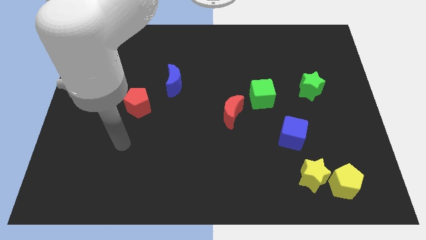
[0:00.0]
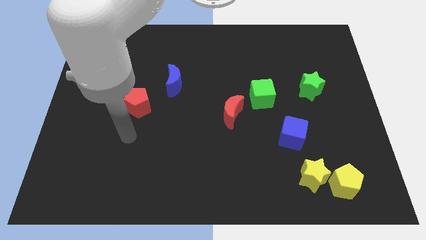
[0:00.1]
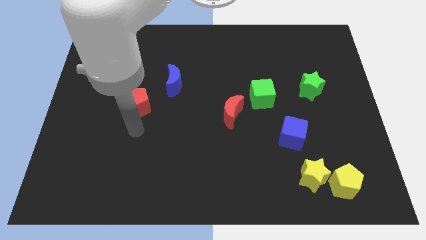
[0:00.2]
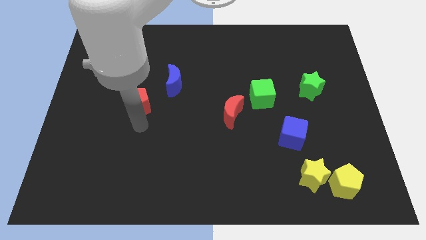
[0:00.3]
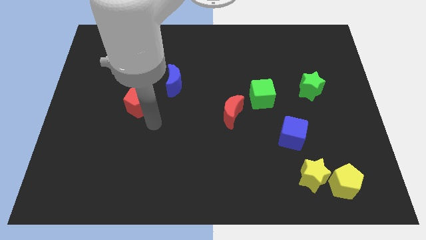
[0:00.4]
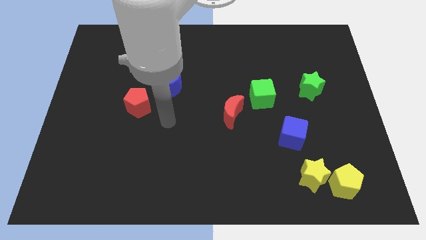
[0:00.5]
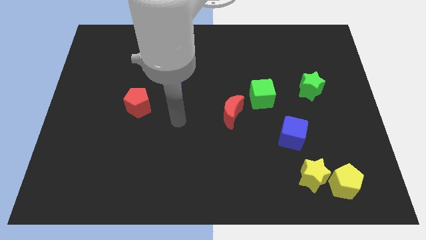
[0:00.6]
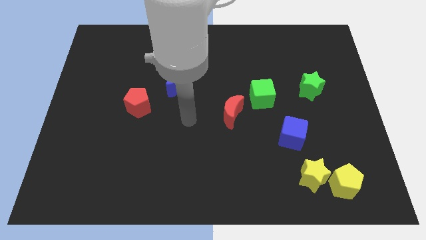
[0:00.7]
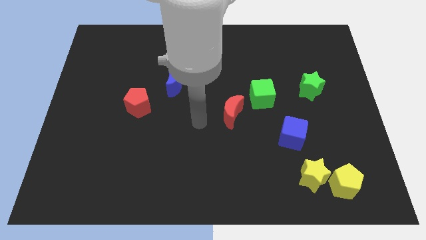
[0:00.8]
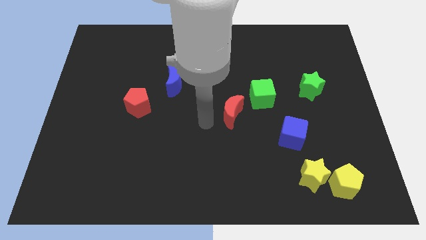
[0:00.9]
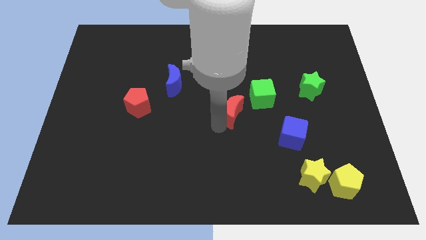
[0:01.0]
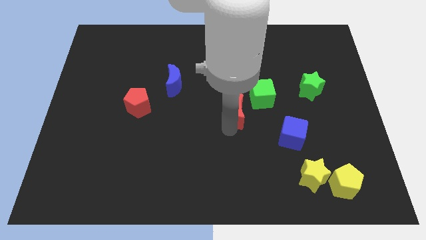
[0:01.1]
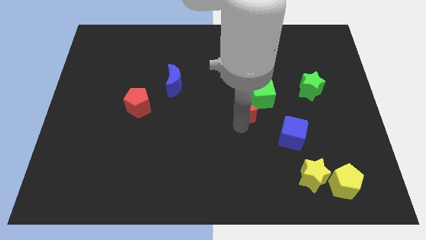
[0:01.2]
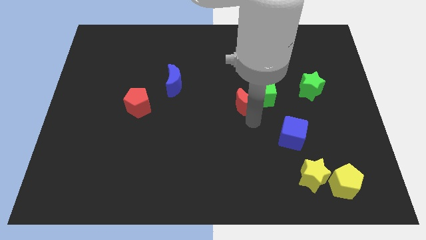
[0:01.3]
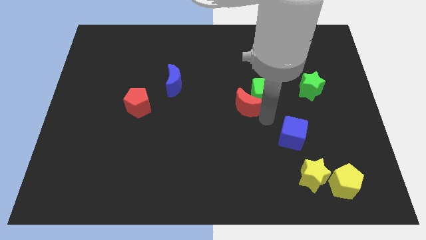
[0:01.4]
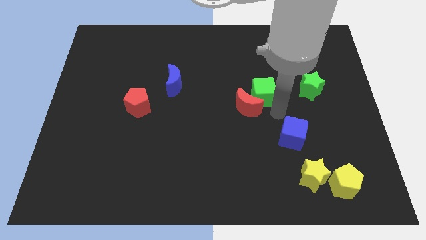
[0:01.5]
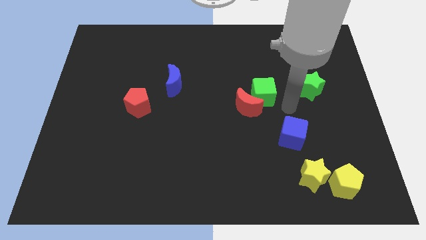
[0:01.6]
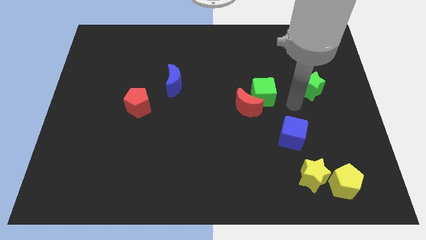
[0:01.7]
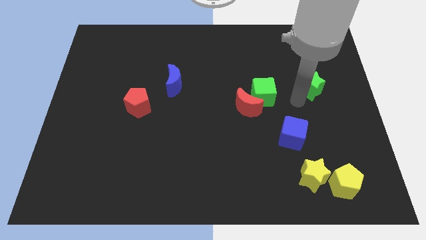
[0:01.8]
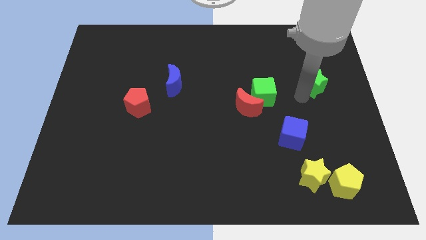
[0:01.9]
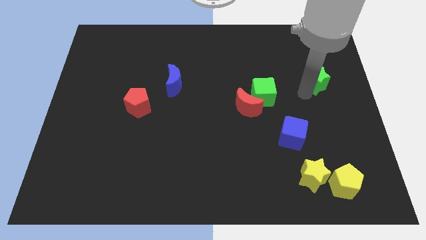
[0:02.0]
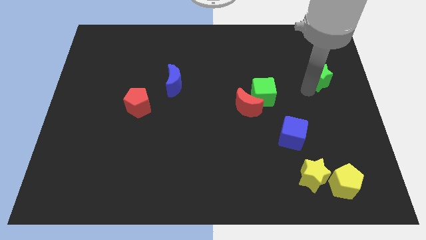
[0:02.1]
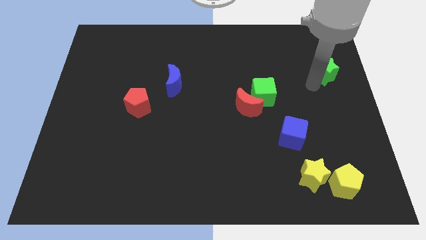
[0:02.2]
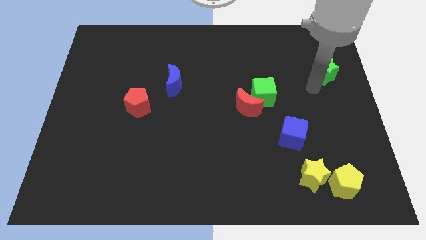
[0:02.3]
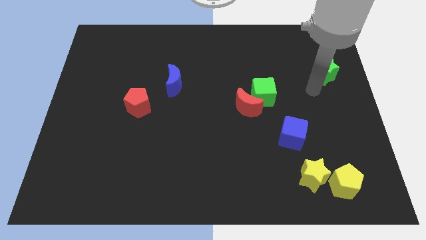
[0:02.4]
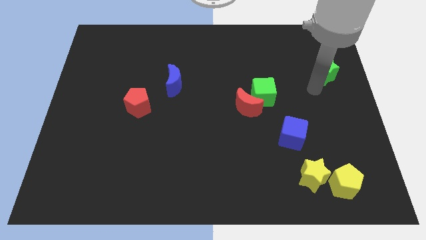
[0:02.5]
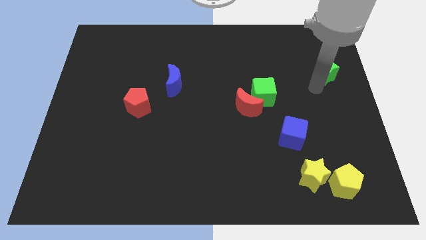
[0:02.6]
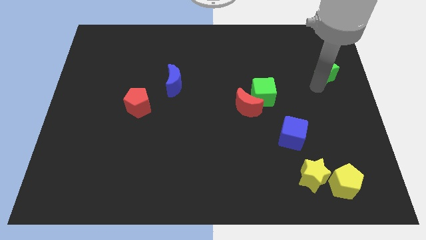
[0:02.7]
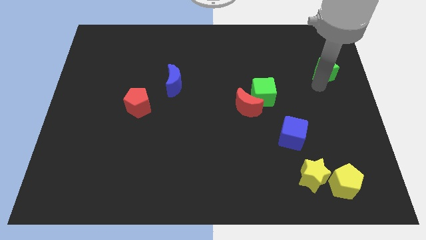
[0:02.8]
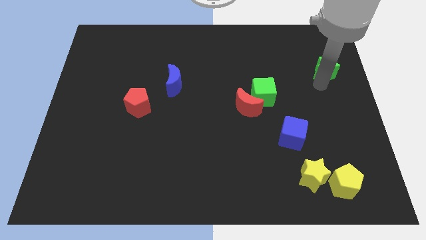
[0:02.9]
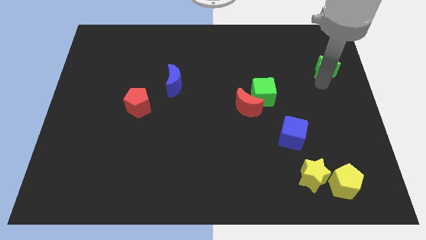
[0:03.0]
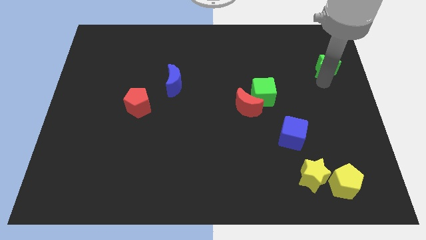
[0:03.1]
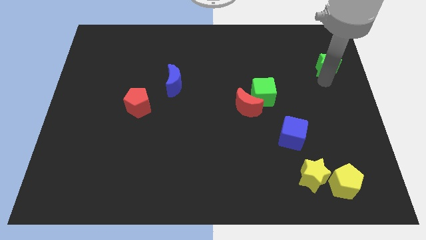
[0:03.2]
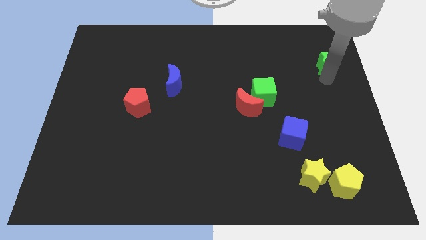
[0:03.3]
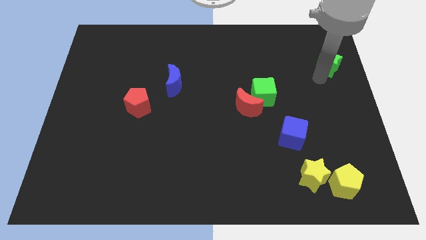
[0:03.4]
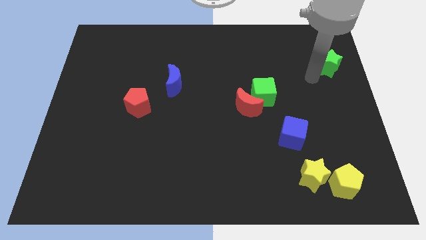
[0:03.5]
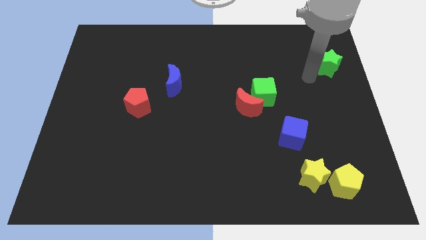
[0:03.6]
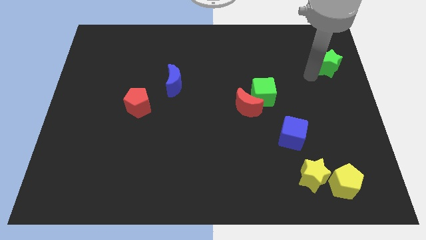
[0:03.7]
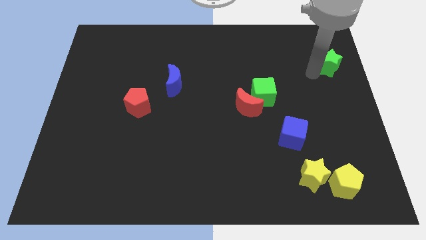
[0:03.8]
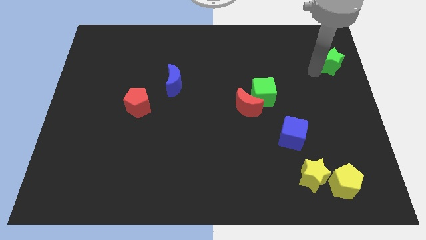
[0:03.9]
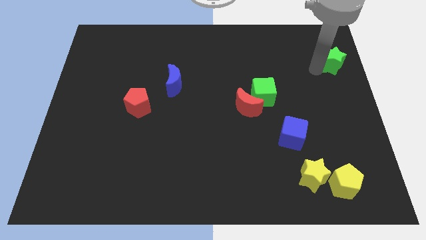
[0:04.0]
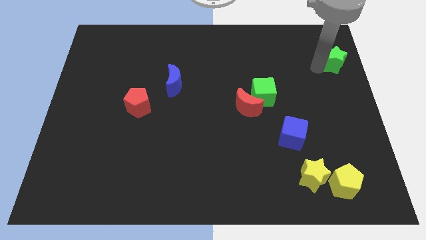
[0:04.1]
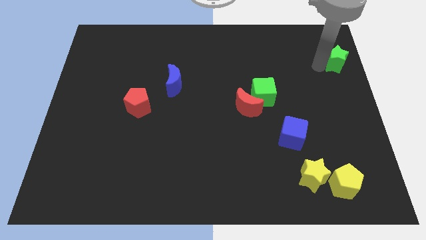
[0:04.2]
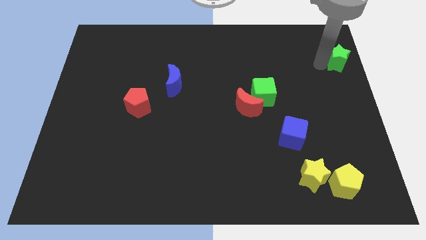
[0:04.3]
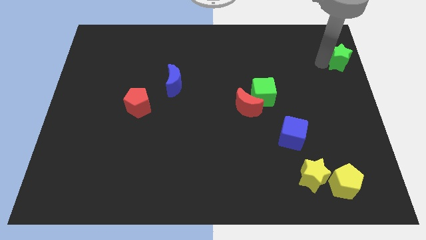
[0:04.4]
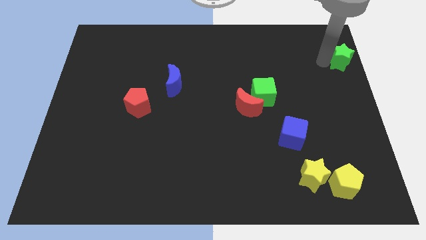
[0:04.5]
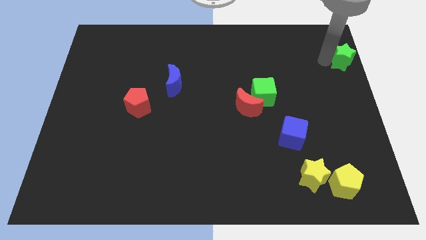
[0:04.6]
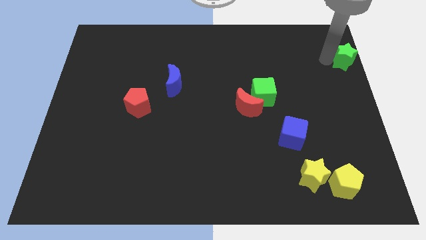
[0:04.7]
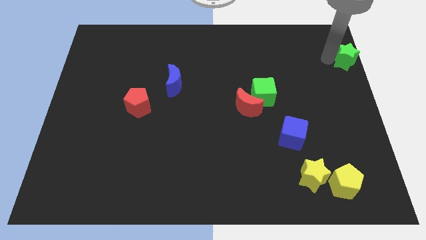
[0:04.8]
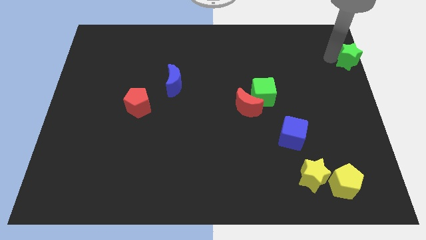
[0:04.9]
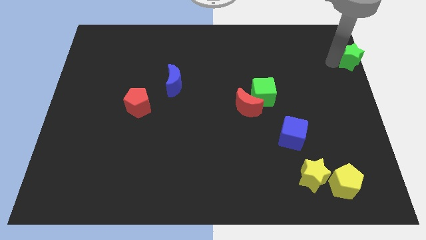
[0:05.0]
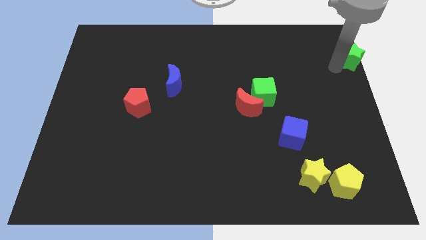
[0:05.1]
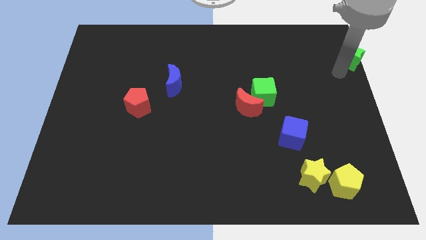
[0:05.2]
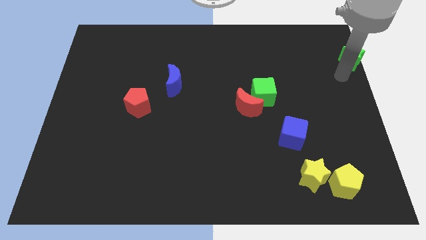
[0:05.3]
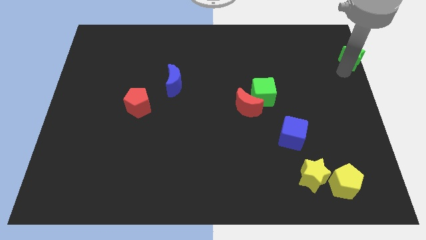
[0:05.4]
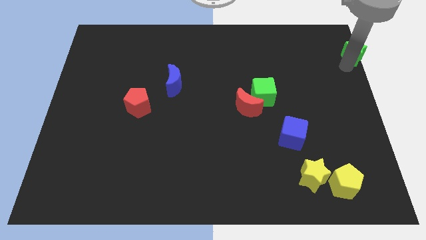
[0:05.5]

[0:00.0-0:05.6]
slide the green star to the upper right corner

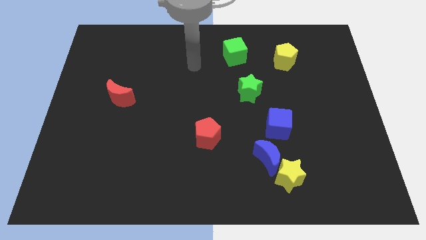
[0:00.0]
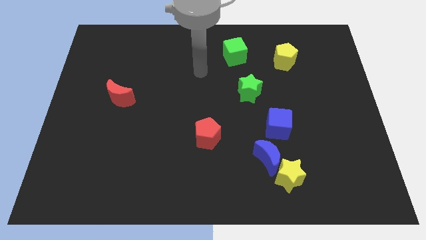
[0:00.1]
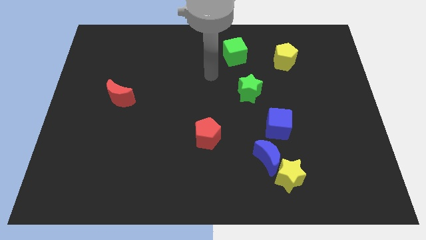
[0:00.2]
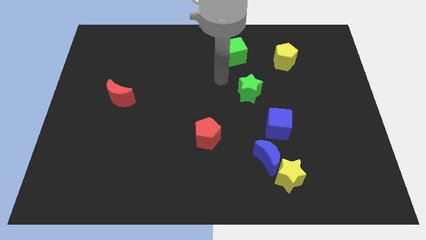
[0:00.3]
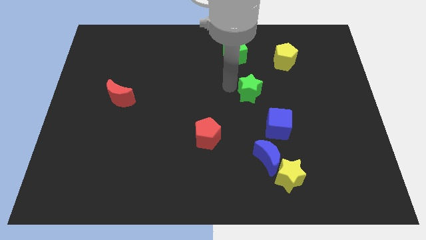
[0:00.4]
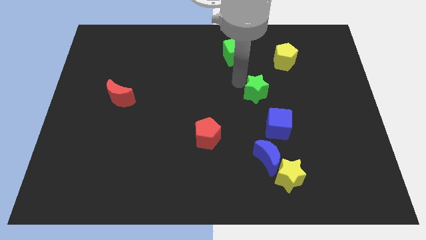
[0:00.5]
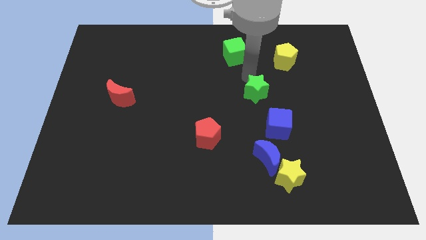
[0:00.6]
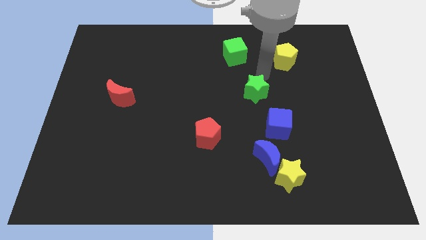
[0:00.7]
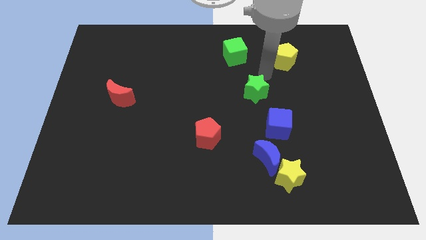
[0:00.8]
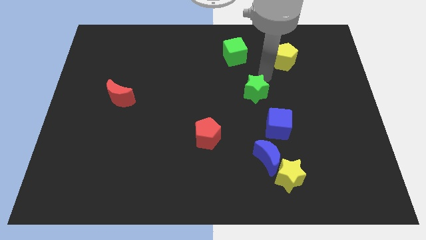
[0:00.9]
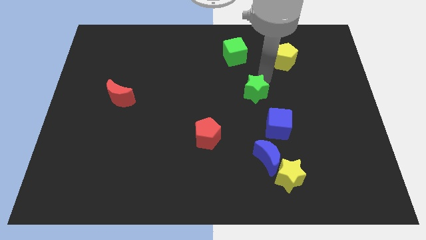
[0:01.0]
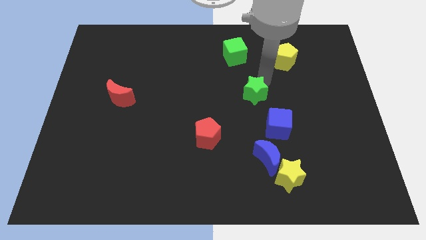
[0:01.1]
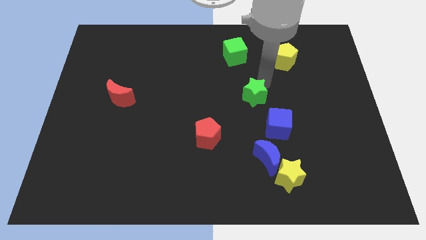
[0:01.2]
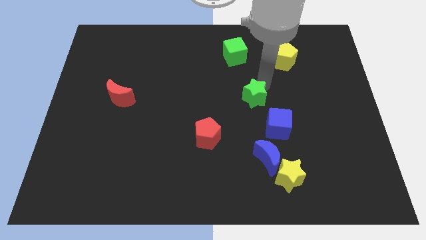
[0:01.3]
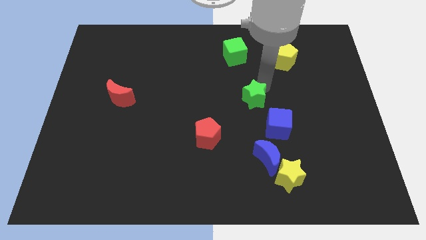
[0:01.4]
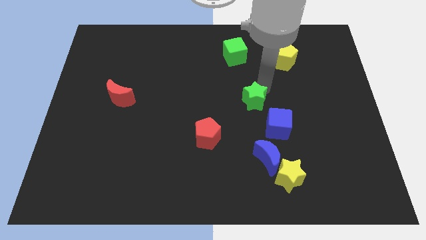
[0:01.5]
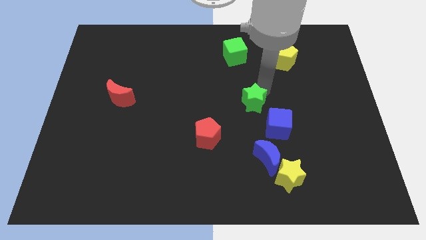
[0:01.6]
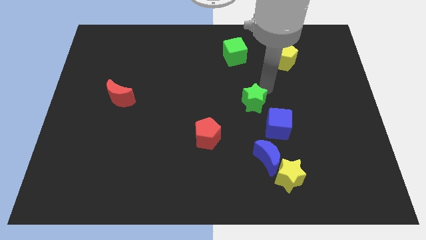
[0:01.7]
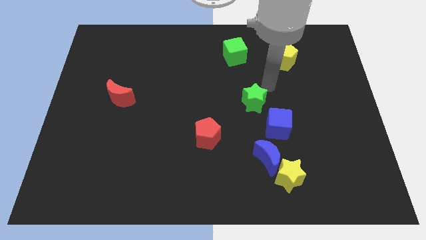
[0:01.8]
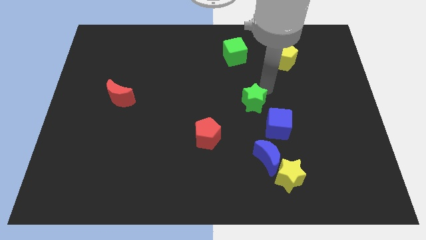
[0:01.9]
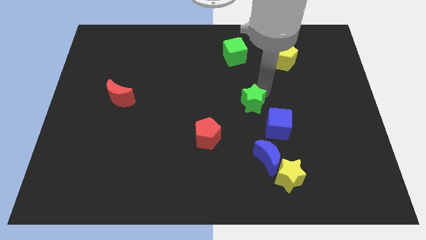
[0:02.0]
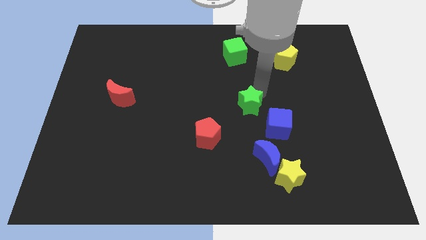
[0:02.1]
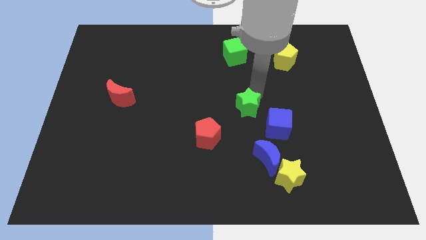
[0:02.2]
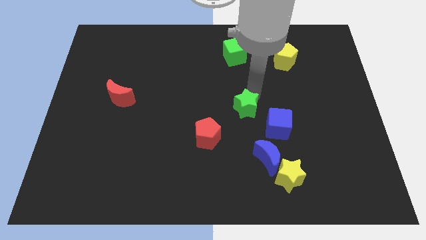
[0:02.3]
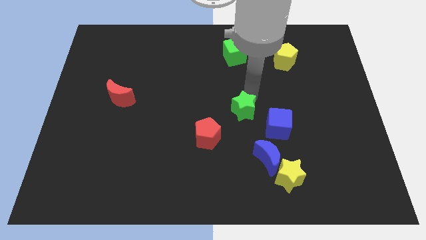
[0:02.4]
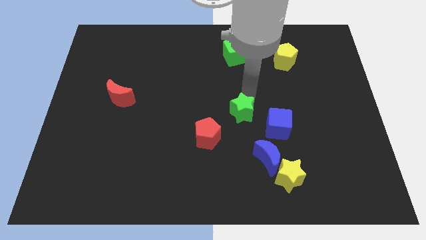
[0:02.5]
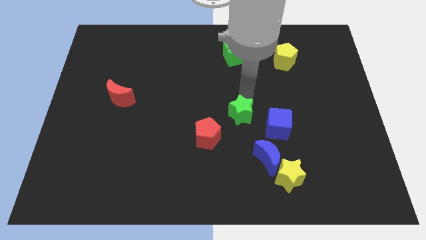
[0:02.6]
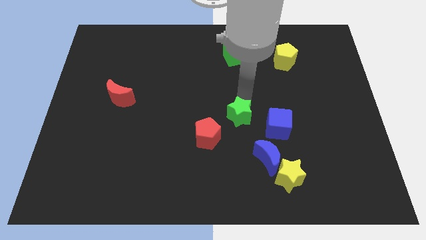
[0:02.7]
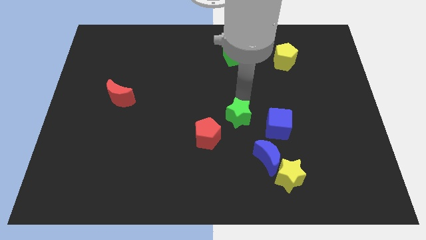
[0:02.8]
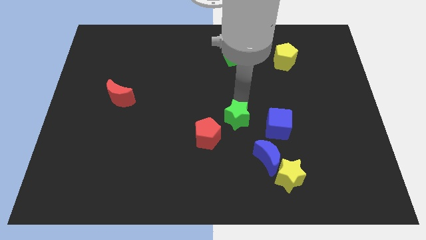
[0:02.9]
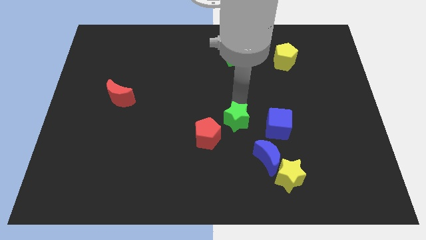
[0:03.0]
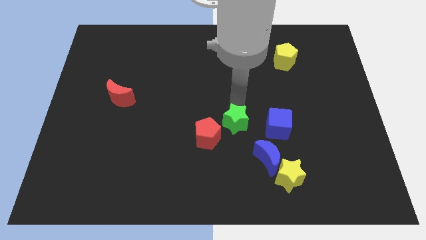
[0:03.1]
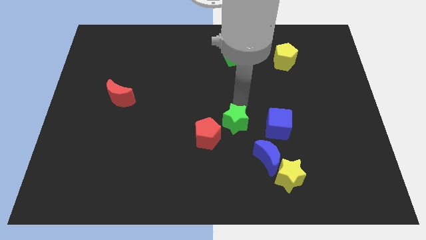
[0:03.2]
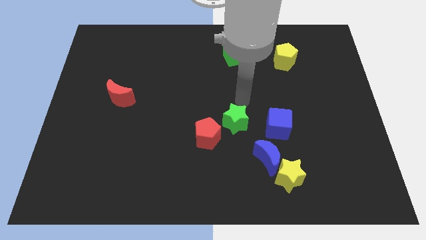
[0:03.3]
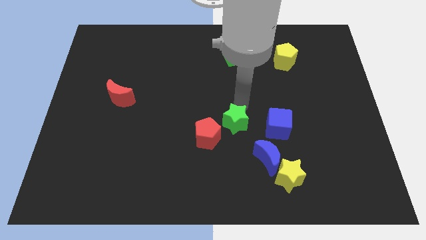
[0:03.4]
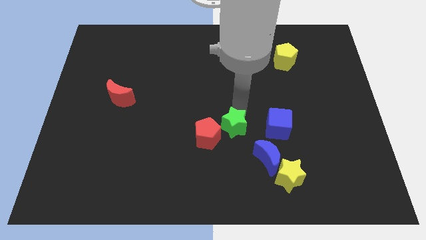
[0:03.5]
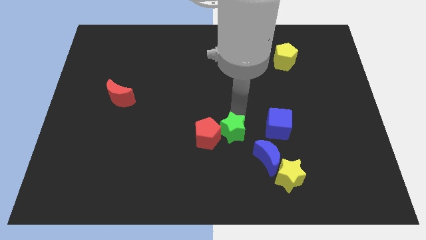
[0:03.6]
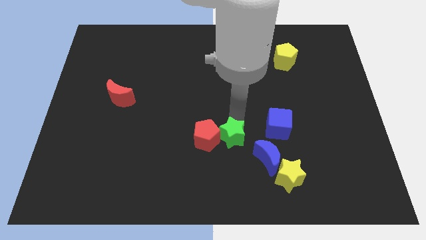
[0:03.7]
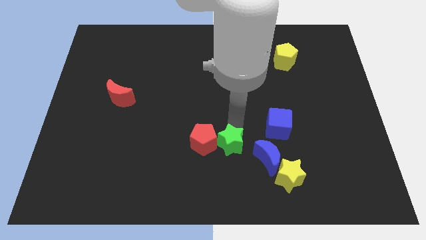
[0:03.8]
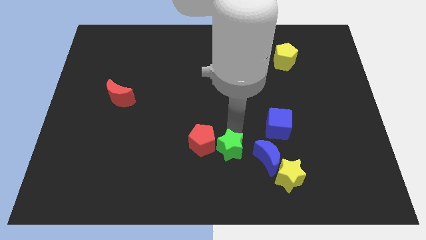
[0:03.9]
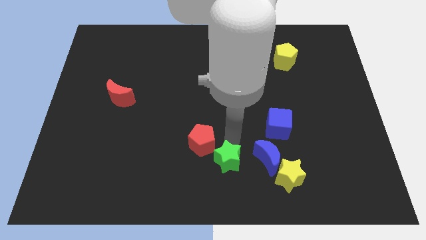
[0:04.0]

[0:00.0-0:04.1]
put the green star to the bottom
